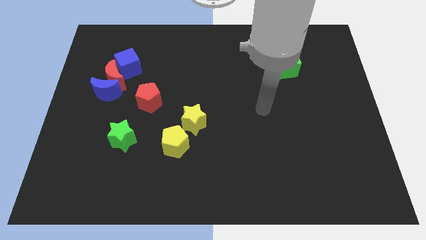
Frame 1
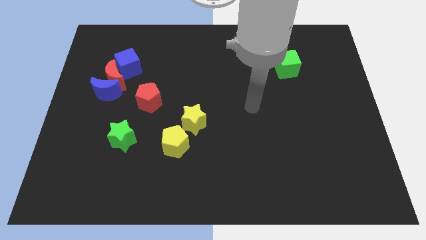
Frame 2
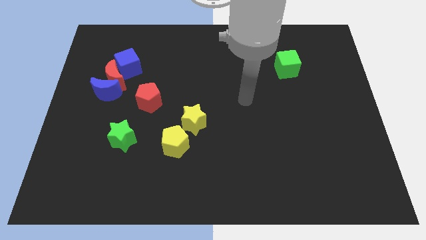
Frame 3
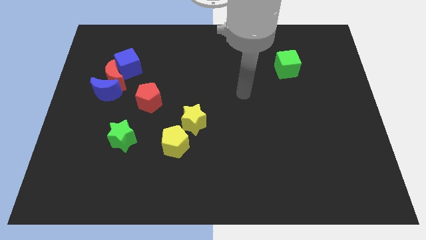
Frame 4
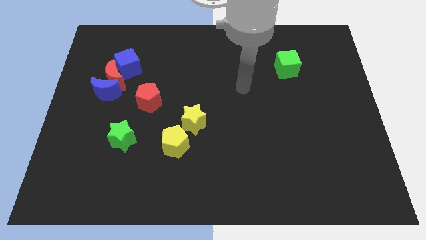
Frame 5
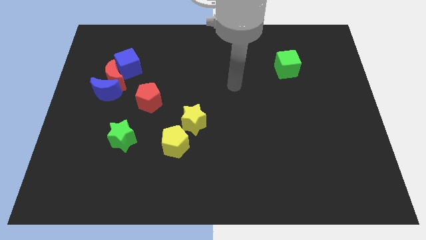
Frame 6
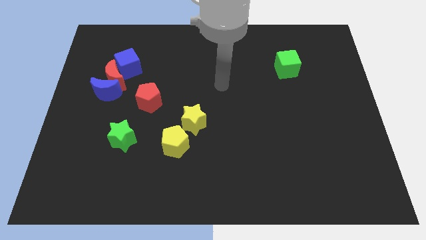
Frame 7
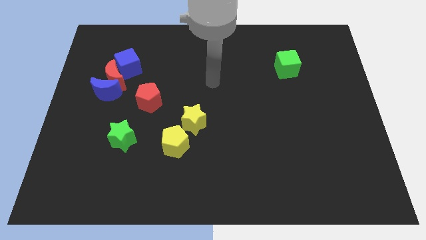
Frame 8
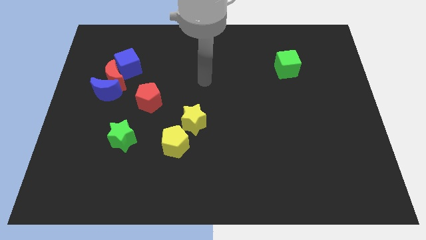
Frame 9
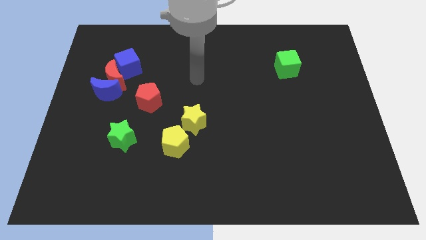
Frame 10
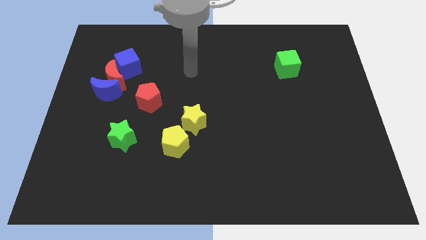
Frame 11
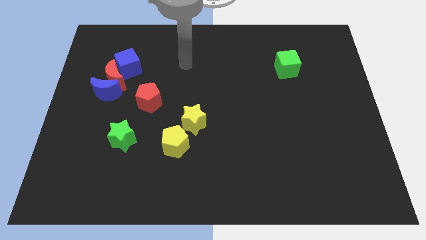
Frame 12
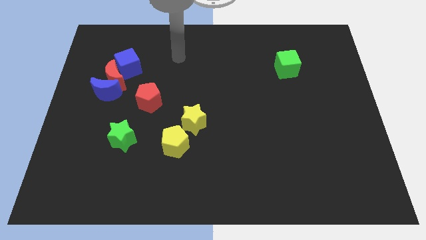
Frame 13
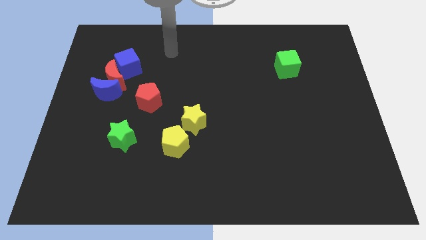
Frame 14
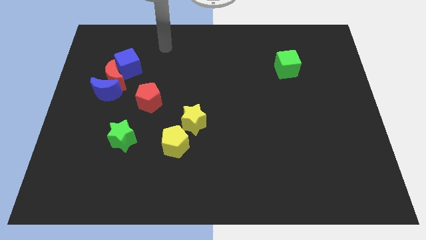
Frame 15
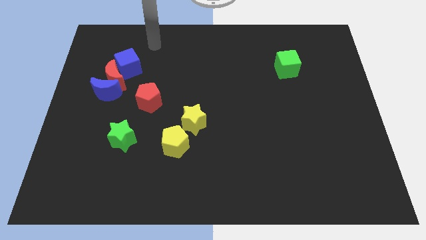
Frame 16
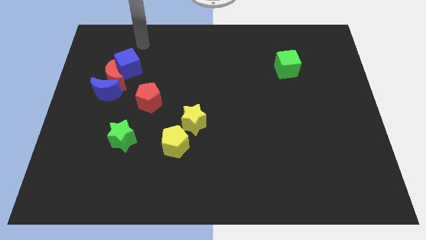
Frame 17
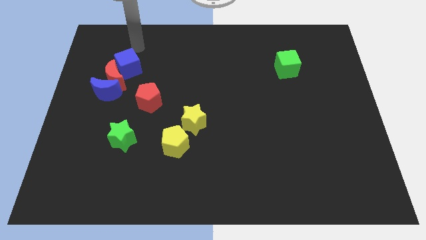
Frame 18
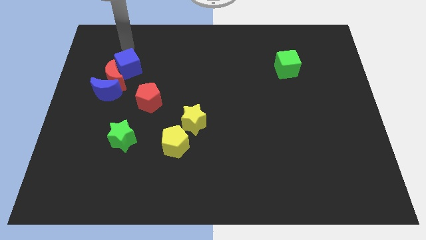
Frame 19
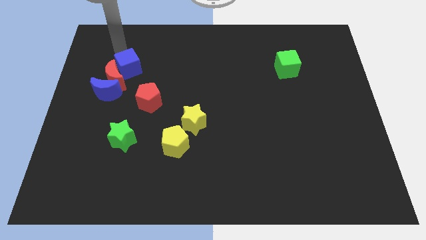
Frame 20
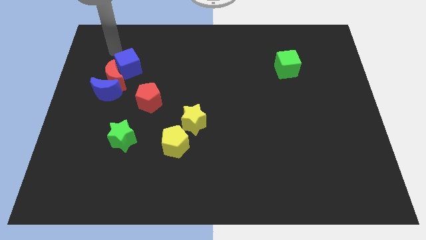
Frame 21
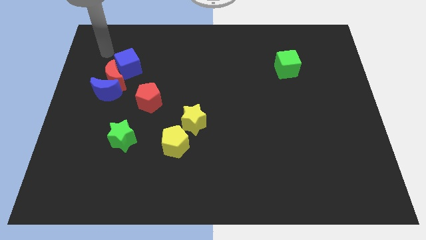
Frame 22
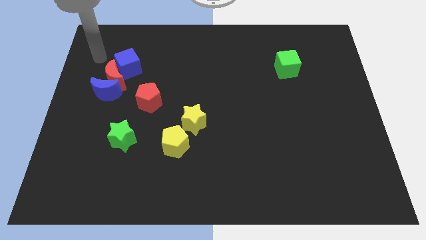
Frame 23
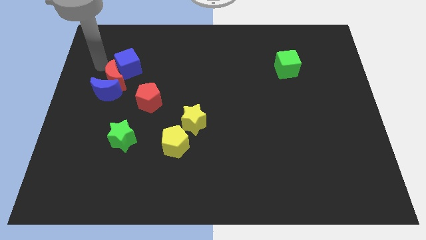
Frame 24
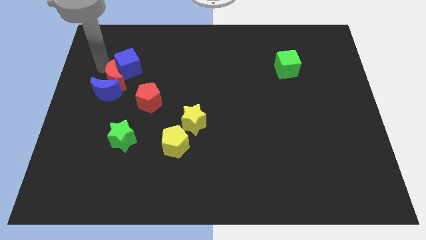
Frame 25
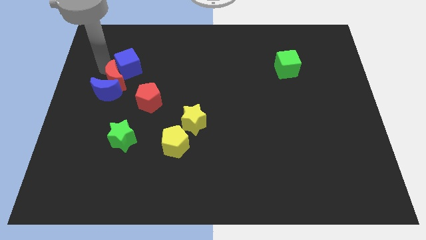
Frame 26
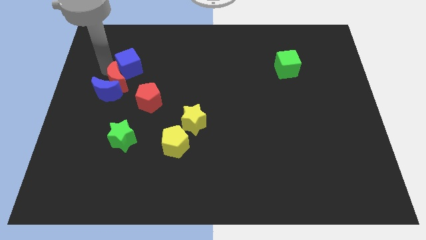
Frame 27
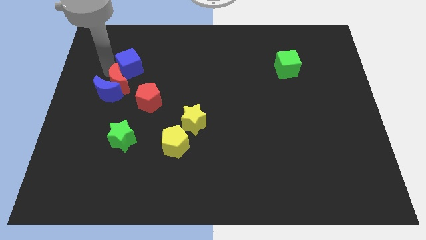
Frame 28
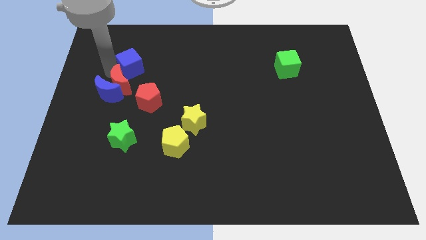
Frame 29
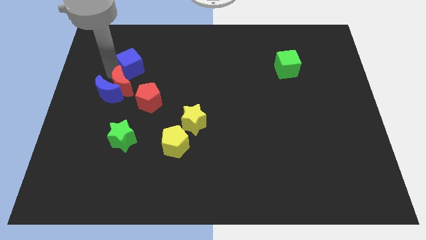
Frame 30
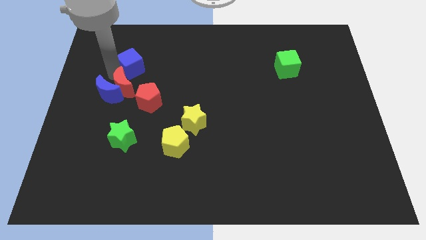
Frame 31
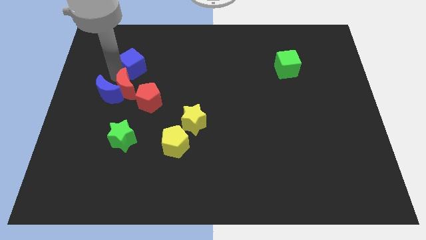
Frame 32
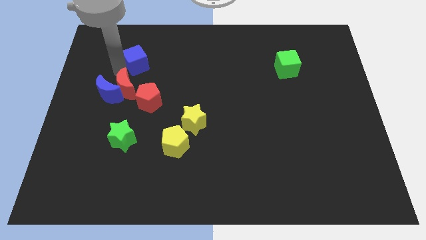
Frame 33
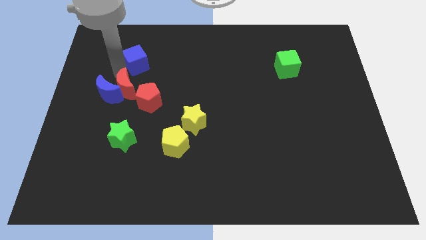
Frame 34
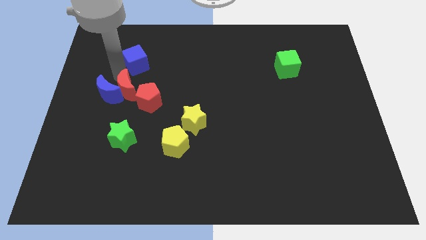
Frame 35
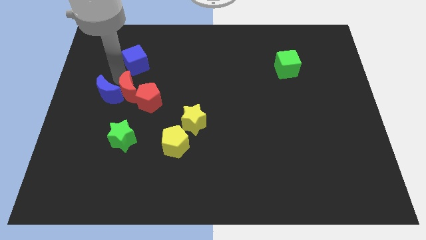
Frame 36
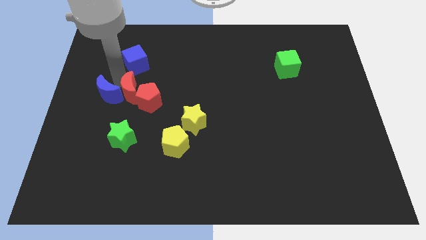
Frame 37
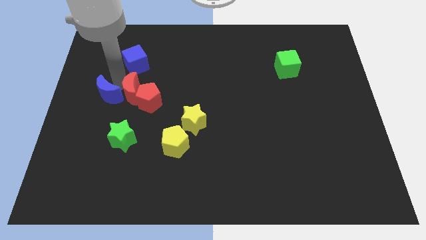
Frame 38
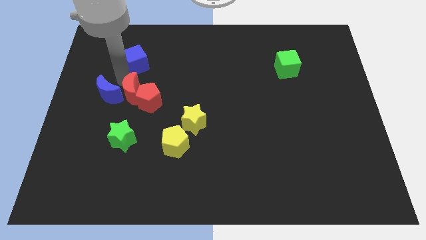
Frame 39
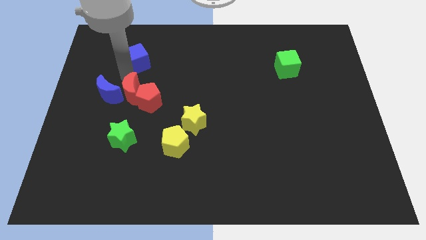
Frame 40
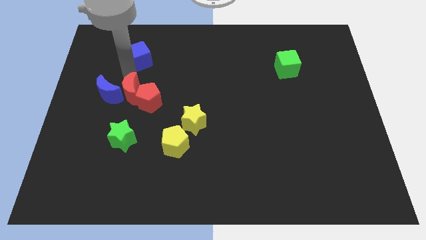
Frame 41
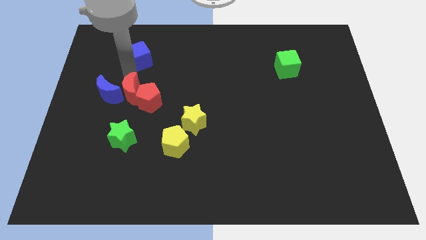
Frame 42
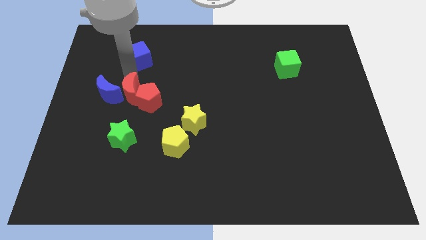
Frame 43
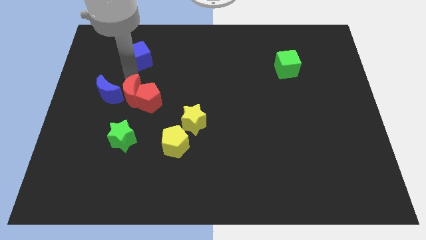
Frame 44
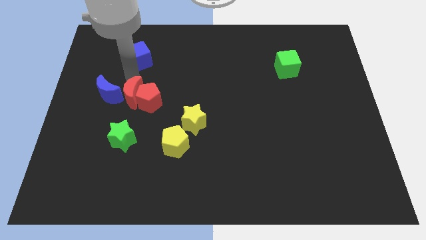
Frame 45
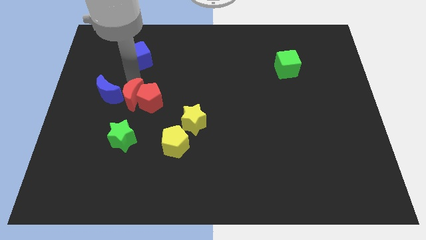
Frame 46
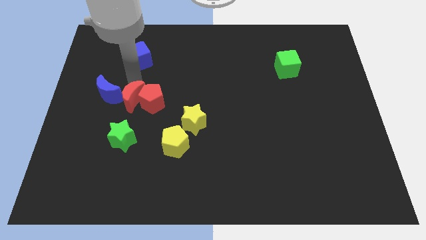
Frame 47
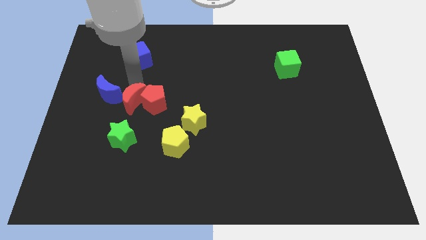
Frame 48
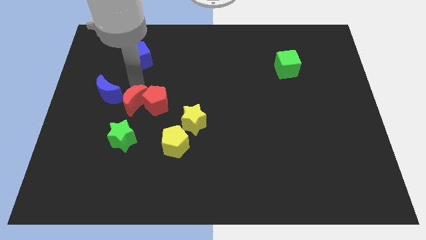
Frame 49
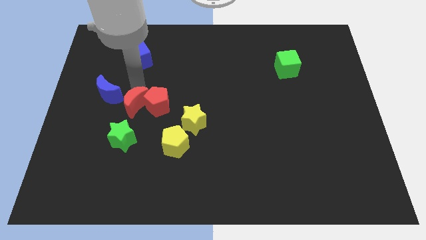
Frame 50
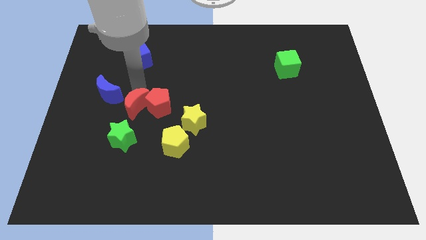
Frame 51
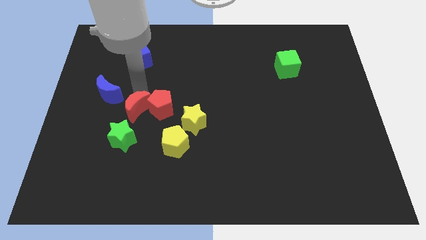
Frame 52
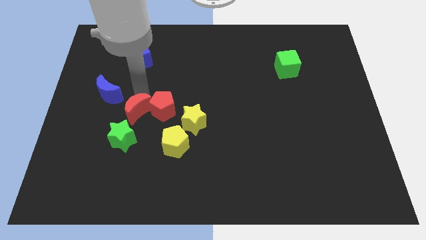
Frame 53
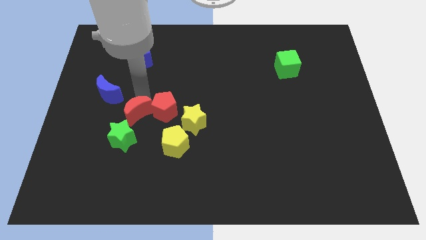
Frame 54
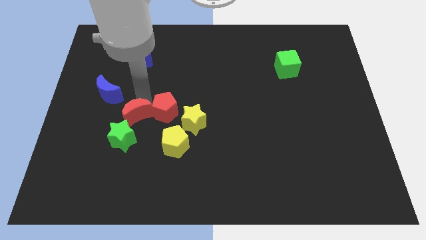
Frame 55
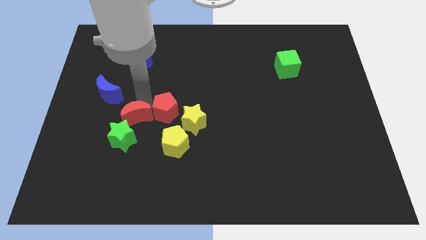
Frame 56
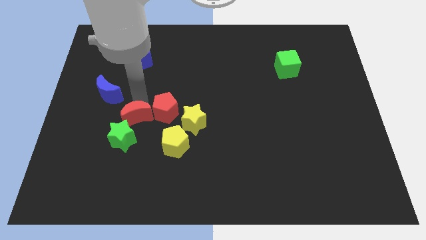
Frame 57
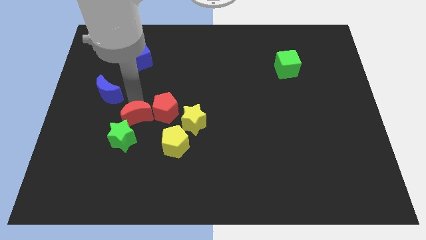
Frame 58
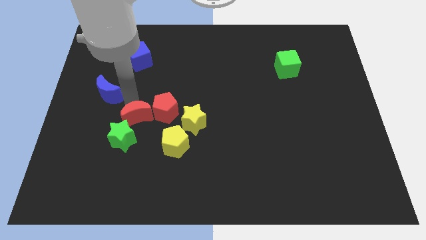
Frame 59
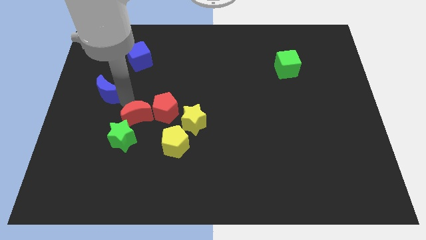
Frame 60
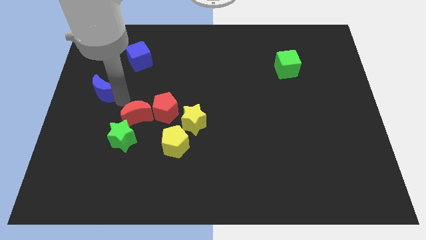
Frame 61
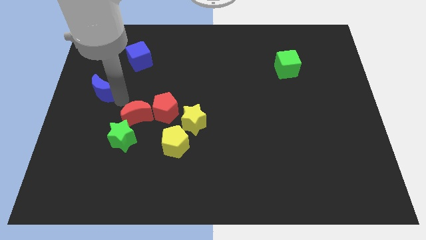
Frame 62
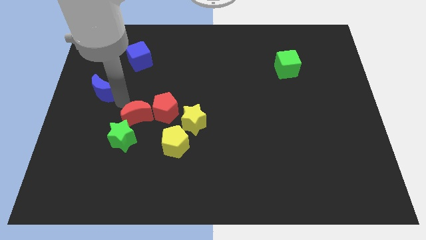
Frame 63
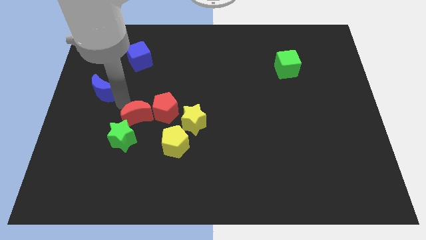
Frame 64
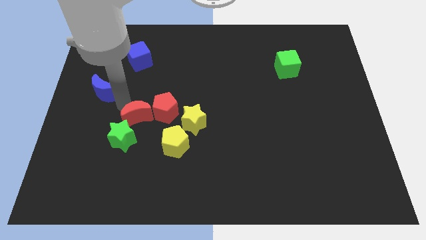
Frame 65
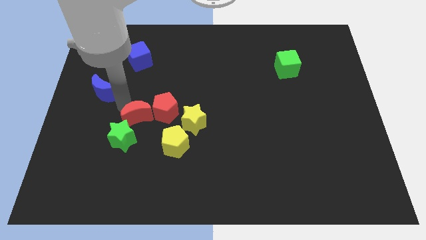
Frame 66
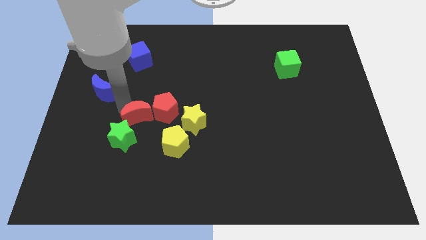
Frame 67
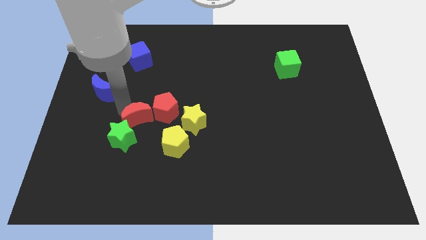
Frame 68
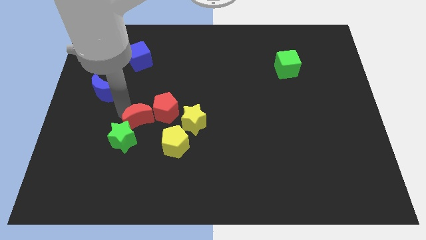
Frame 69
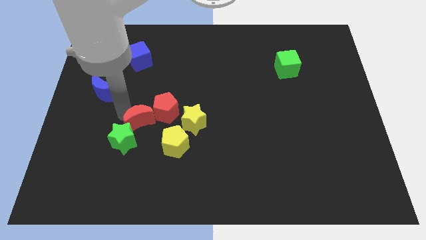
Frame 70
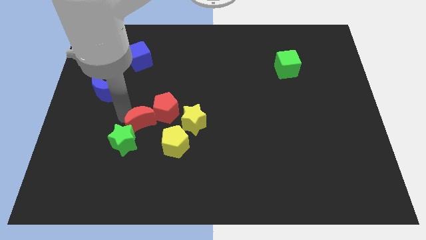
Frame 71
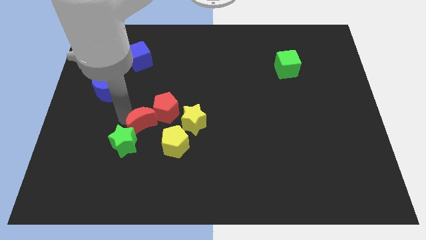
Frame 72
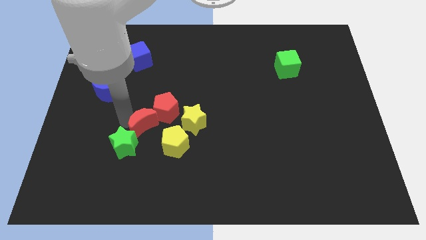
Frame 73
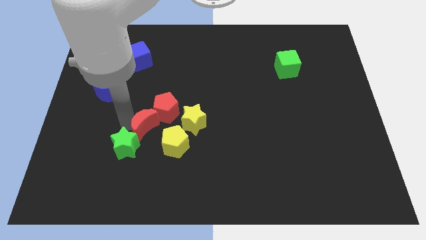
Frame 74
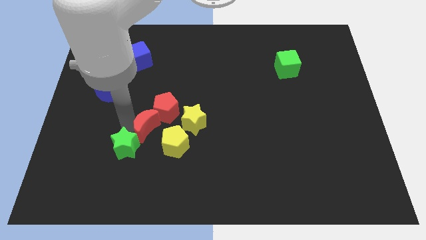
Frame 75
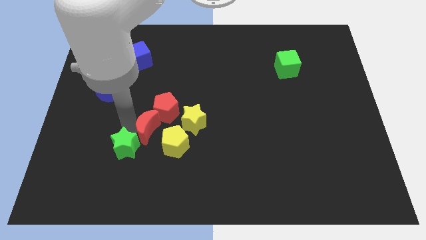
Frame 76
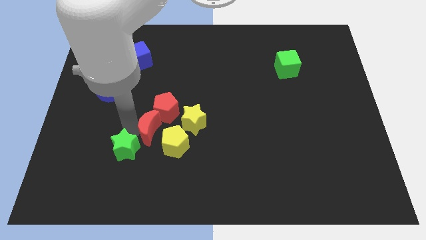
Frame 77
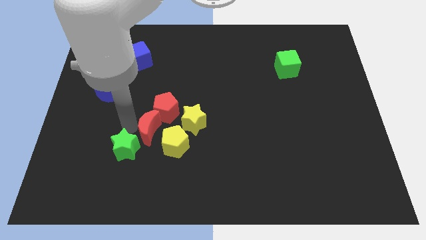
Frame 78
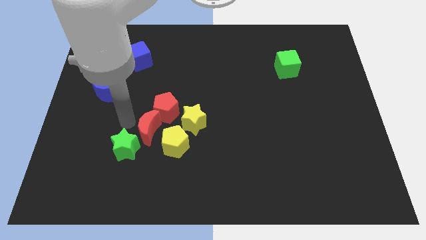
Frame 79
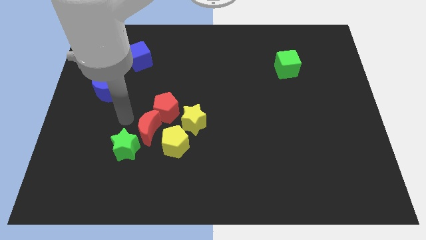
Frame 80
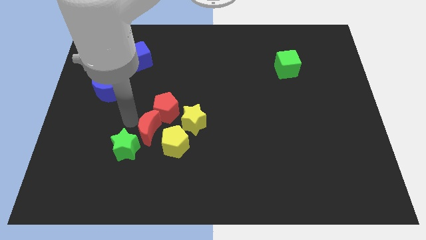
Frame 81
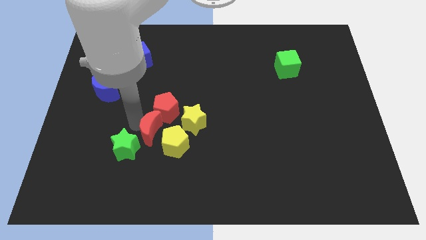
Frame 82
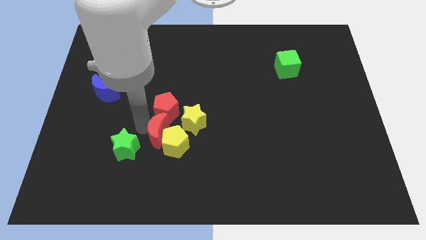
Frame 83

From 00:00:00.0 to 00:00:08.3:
move the red moon next to the yellow pentagon
